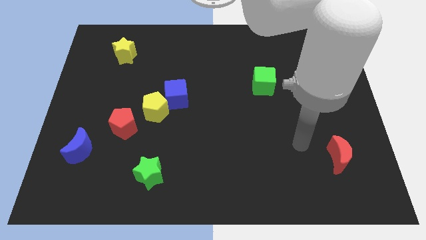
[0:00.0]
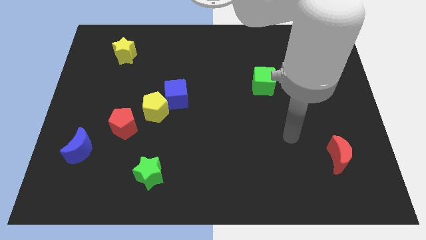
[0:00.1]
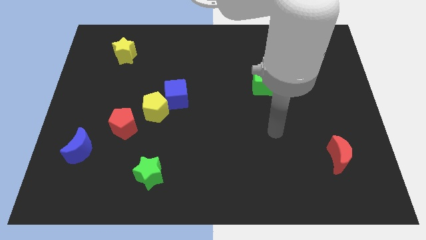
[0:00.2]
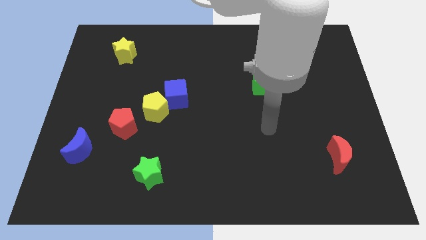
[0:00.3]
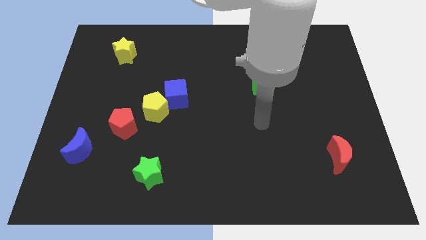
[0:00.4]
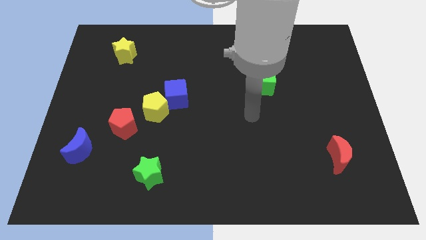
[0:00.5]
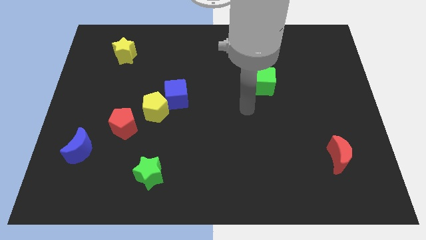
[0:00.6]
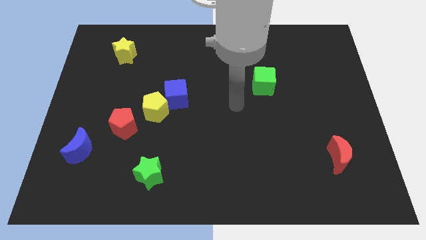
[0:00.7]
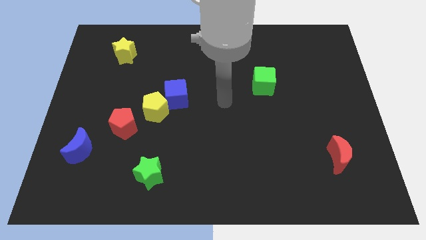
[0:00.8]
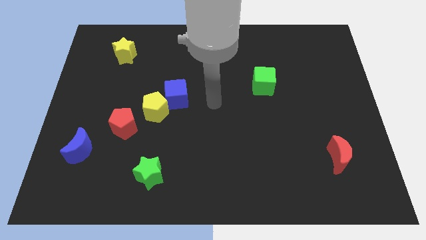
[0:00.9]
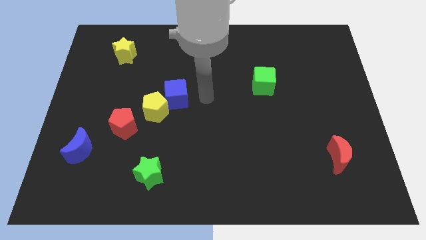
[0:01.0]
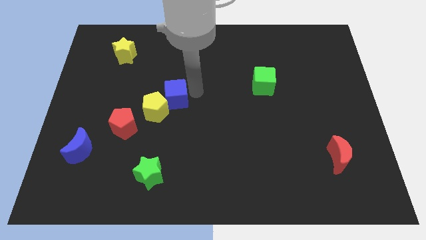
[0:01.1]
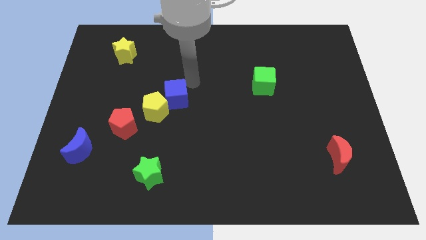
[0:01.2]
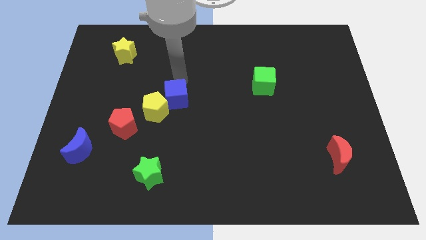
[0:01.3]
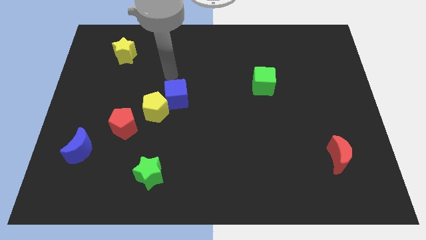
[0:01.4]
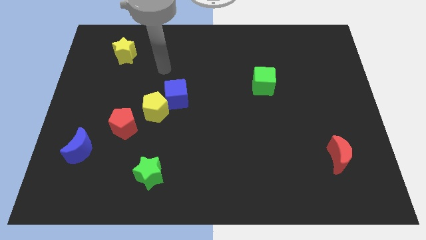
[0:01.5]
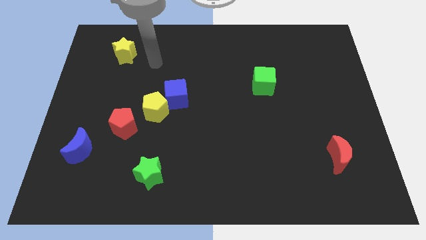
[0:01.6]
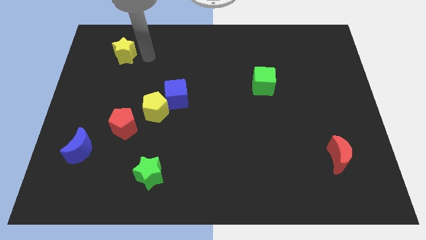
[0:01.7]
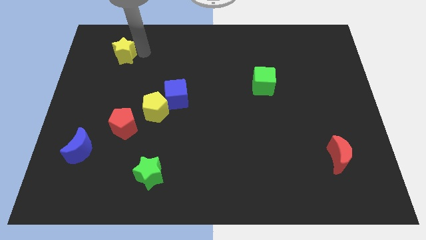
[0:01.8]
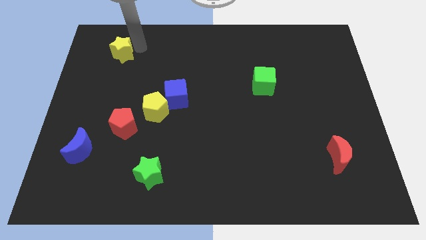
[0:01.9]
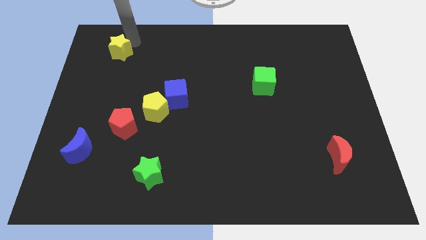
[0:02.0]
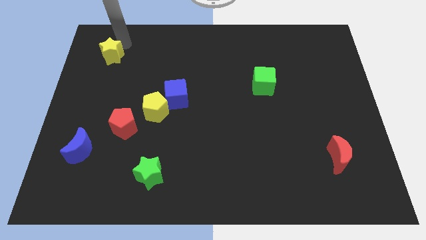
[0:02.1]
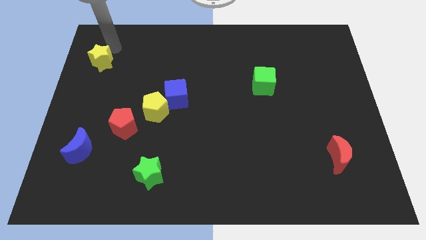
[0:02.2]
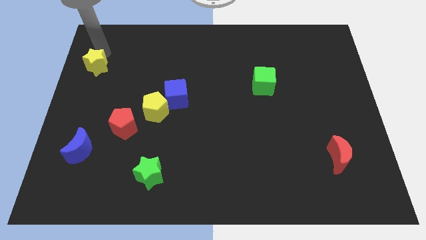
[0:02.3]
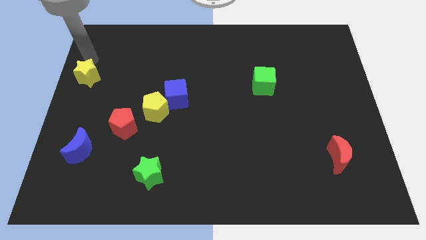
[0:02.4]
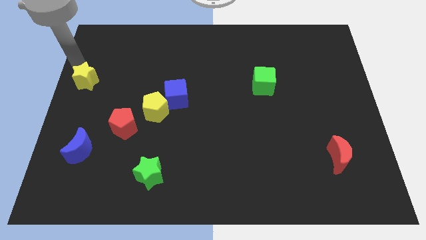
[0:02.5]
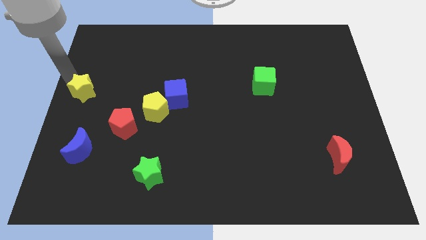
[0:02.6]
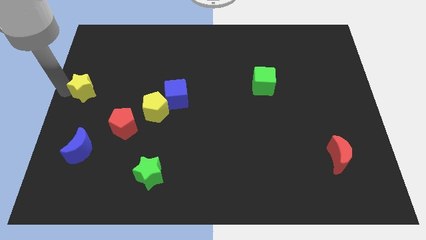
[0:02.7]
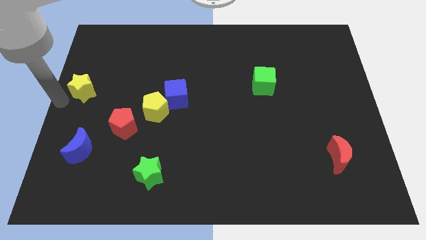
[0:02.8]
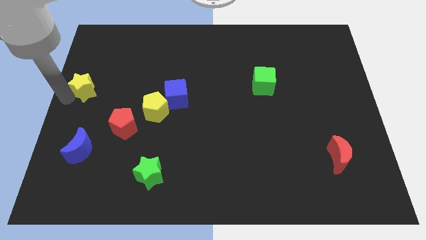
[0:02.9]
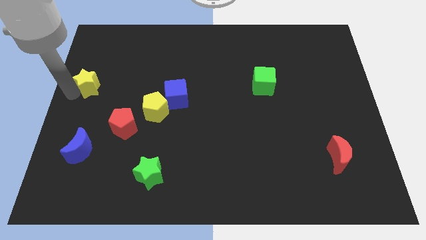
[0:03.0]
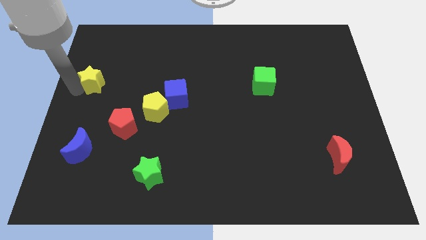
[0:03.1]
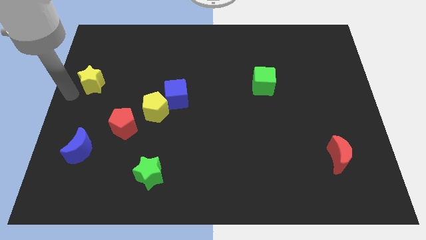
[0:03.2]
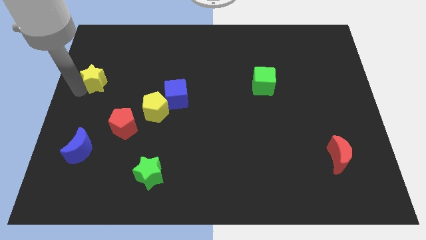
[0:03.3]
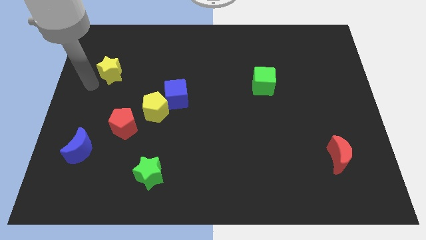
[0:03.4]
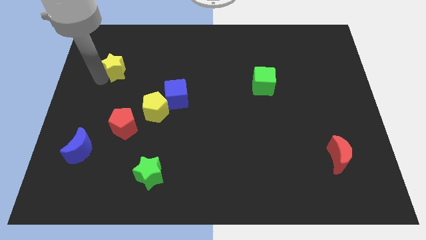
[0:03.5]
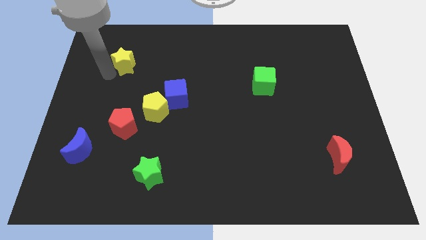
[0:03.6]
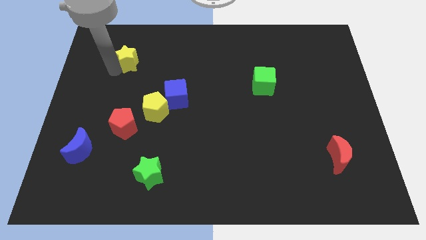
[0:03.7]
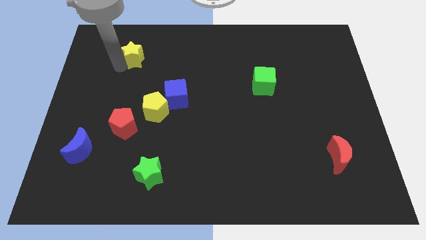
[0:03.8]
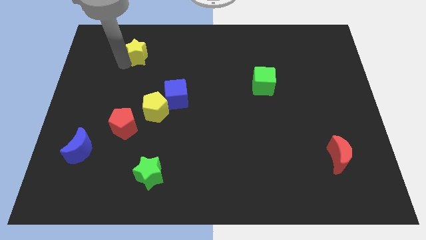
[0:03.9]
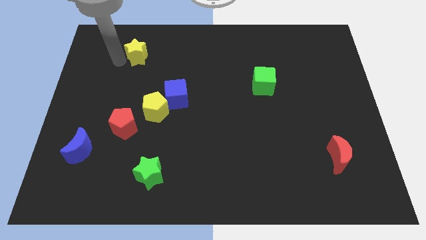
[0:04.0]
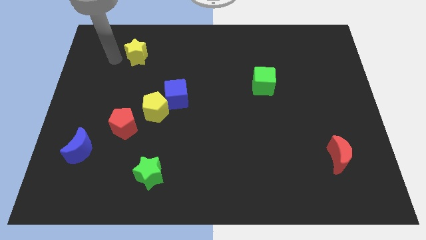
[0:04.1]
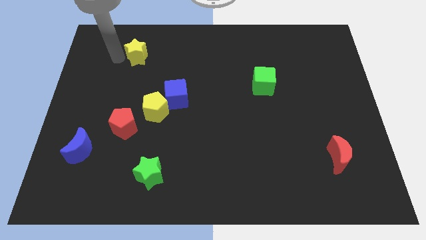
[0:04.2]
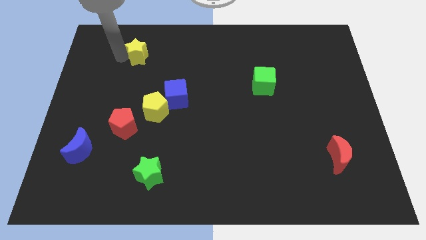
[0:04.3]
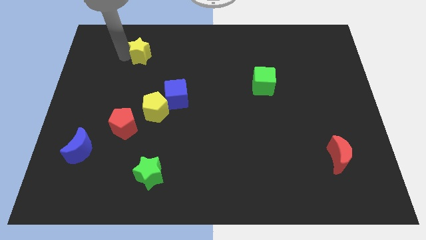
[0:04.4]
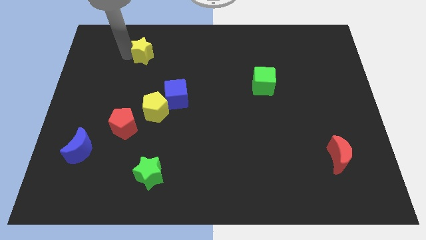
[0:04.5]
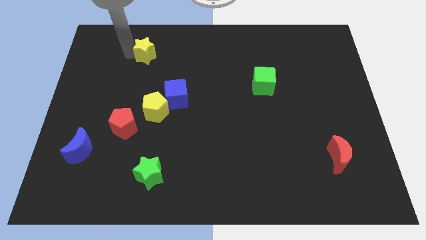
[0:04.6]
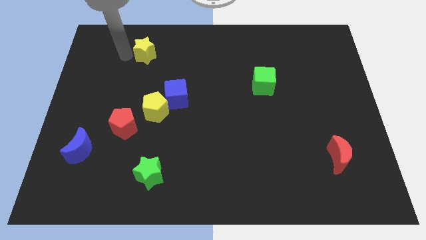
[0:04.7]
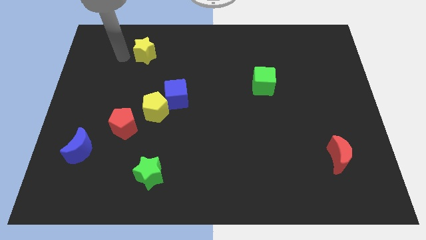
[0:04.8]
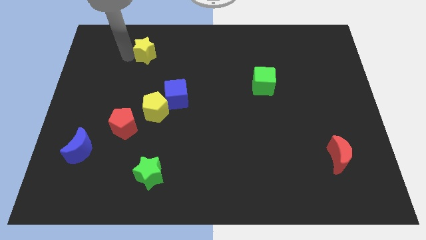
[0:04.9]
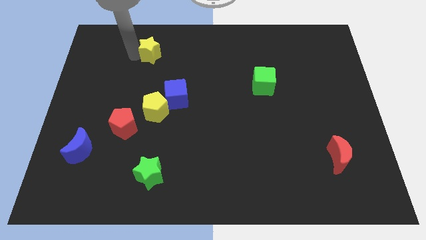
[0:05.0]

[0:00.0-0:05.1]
slightly move the yellow star to the right

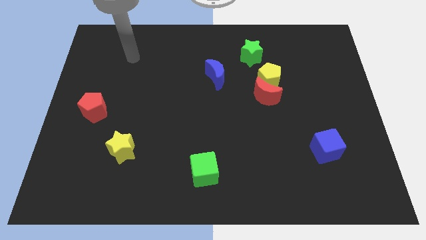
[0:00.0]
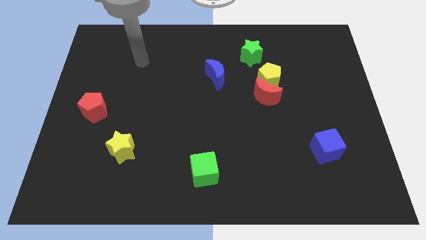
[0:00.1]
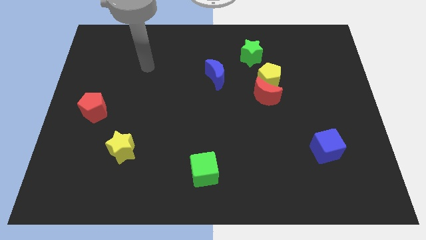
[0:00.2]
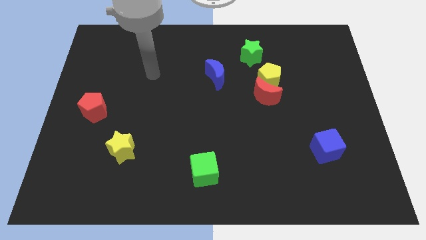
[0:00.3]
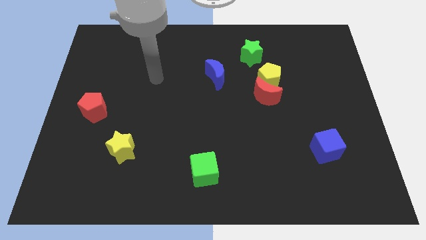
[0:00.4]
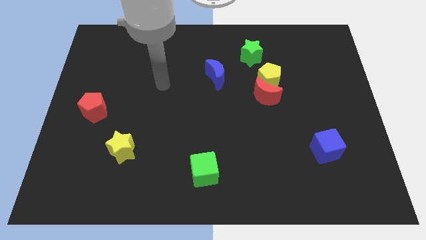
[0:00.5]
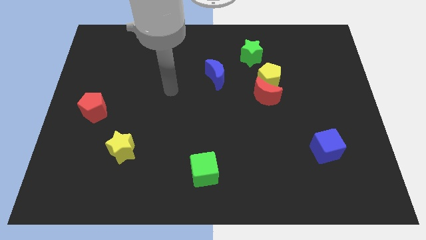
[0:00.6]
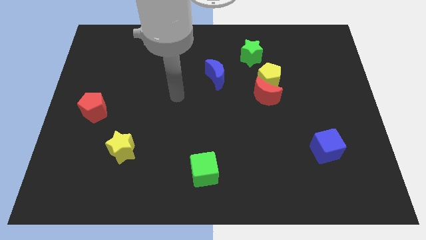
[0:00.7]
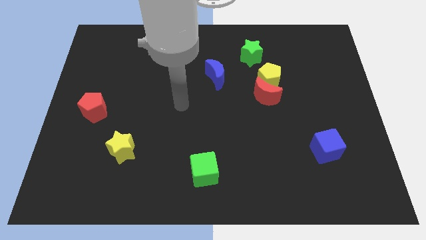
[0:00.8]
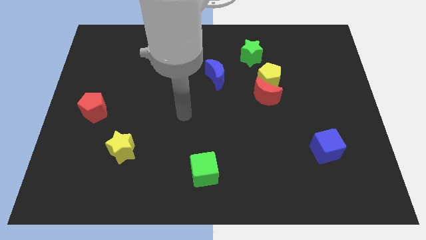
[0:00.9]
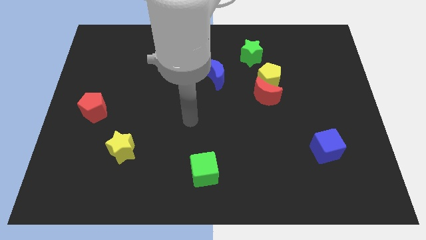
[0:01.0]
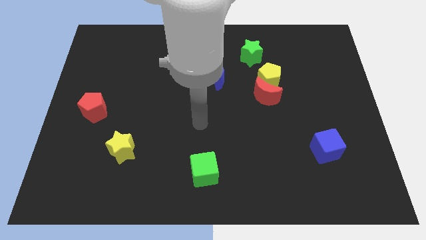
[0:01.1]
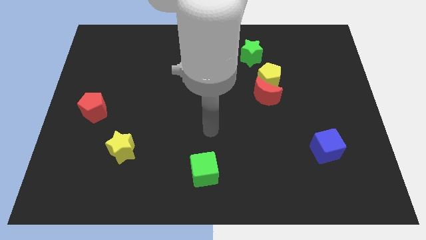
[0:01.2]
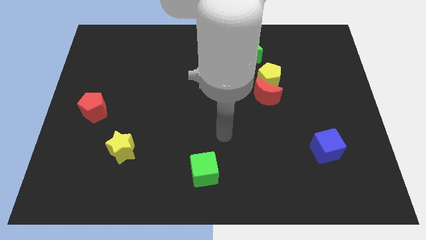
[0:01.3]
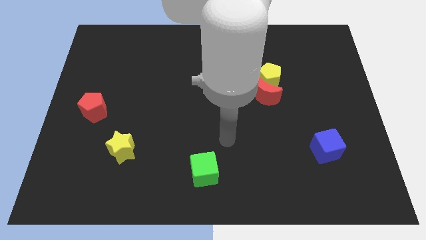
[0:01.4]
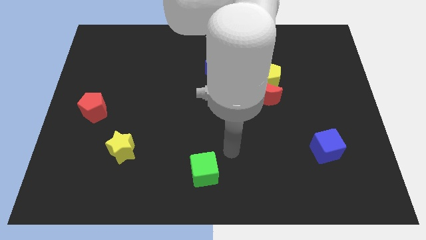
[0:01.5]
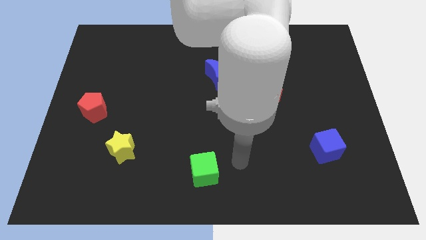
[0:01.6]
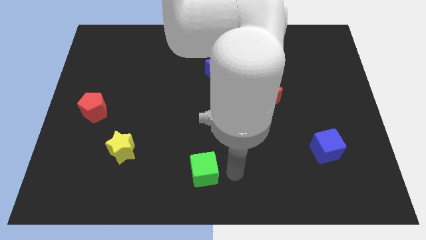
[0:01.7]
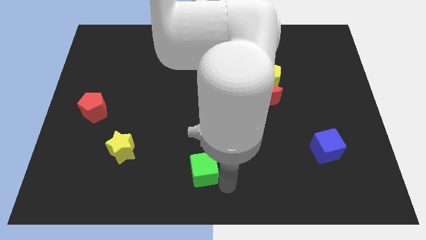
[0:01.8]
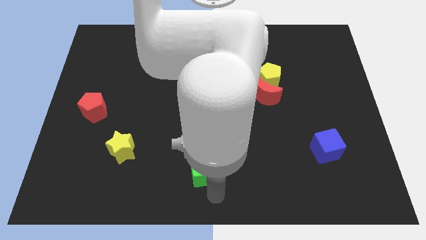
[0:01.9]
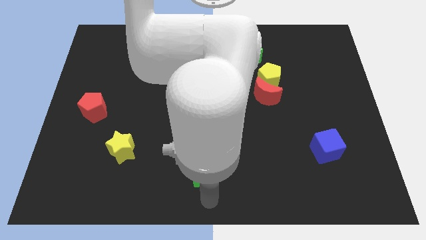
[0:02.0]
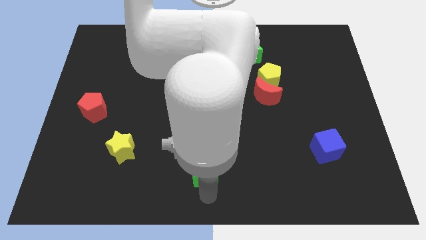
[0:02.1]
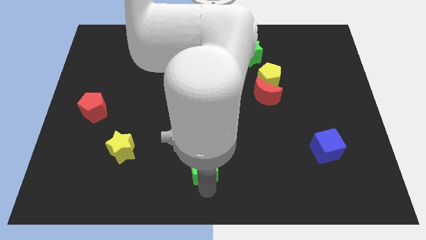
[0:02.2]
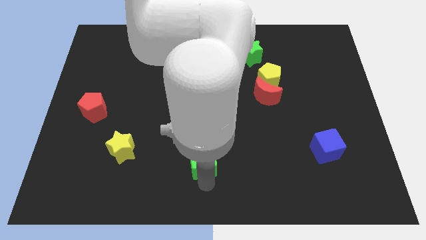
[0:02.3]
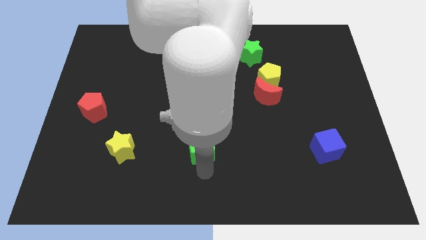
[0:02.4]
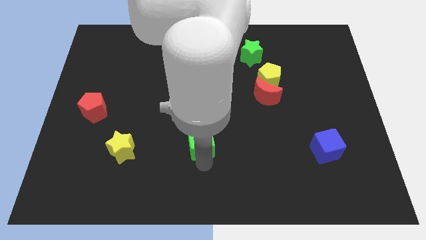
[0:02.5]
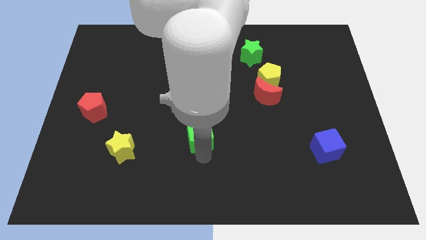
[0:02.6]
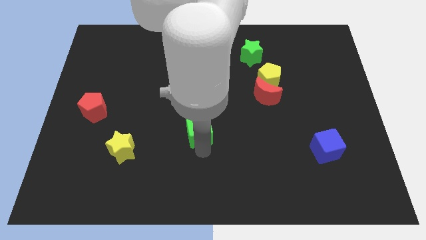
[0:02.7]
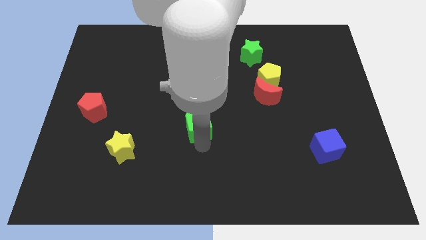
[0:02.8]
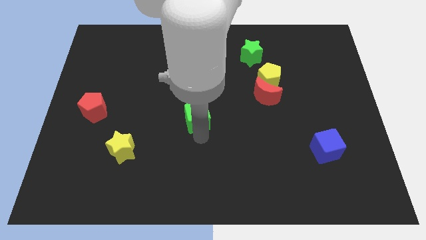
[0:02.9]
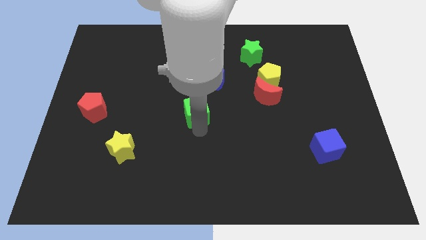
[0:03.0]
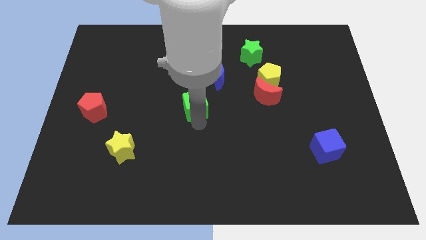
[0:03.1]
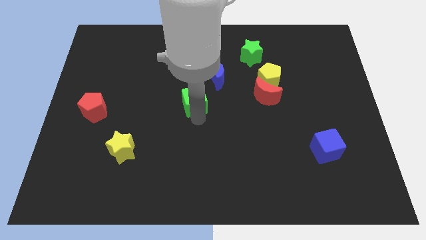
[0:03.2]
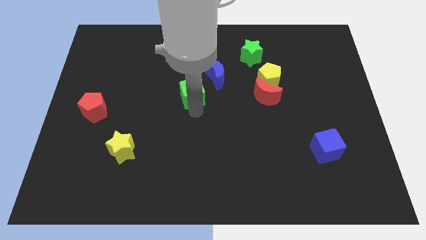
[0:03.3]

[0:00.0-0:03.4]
move the green cube up
